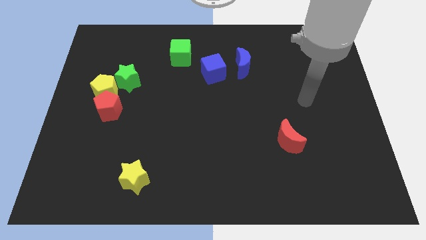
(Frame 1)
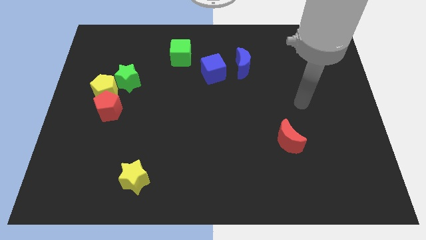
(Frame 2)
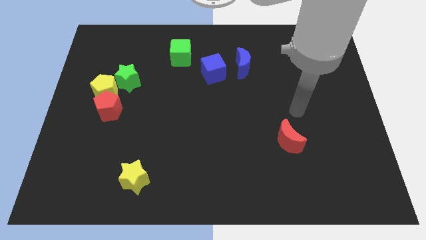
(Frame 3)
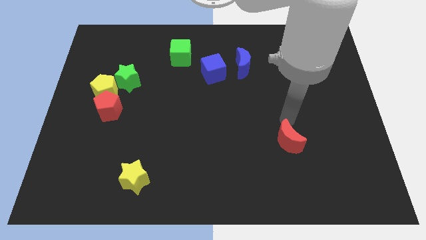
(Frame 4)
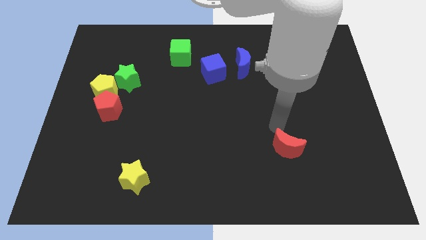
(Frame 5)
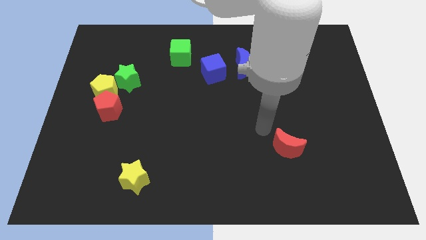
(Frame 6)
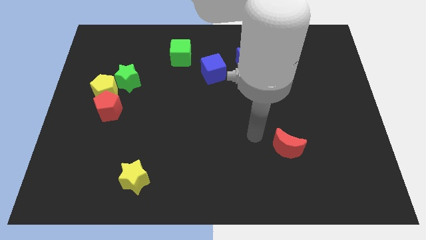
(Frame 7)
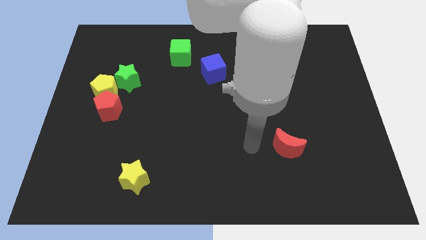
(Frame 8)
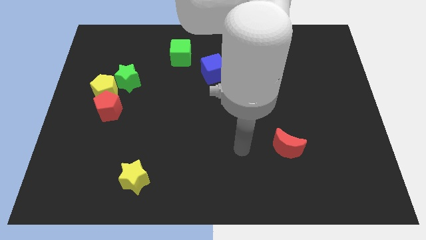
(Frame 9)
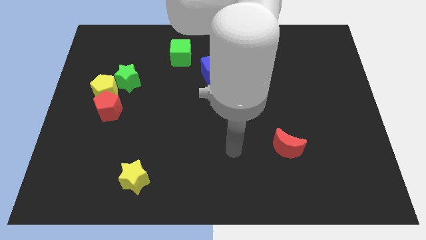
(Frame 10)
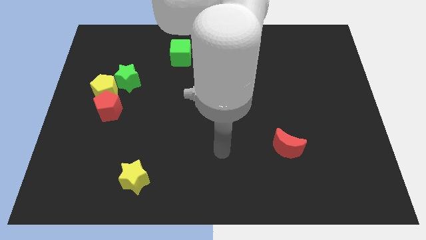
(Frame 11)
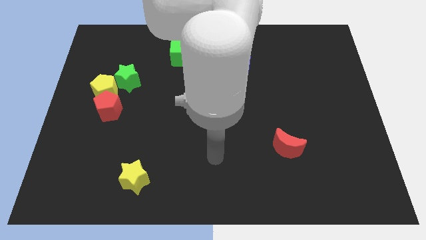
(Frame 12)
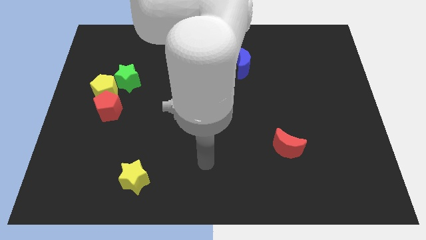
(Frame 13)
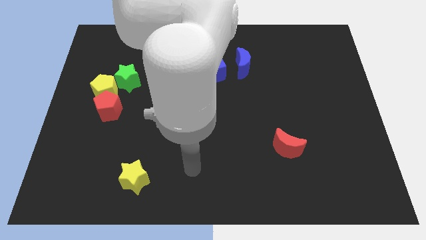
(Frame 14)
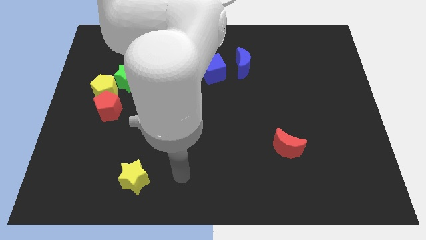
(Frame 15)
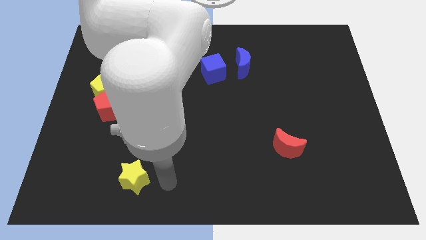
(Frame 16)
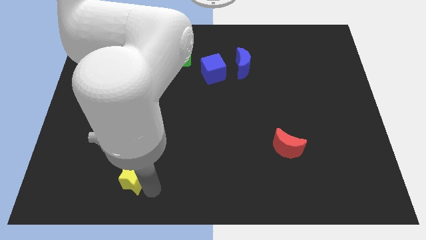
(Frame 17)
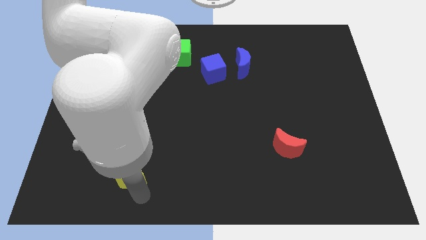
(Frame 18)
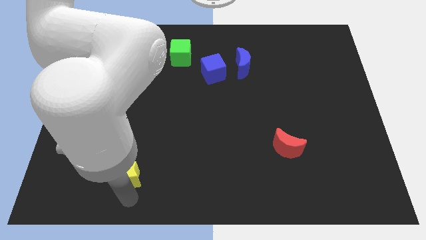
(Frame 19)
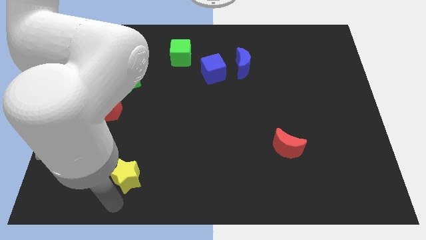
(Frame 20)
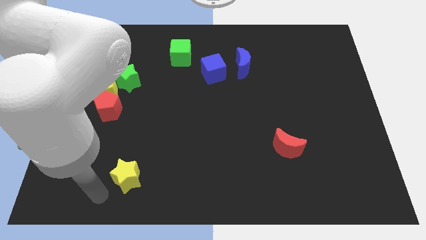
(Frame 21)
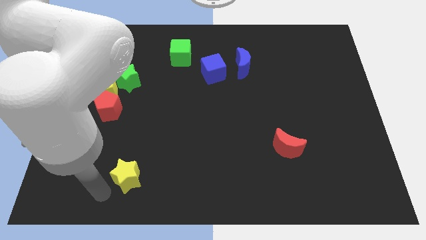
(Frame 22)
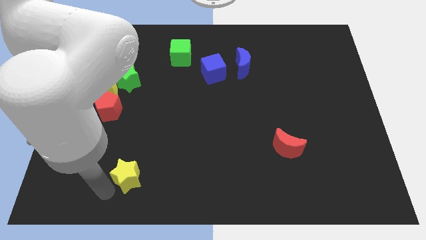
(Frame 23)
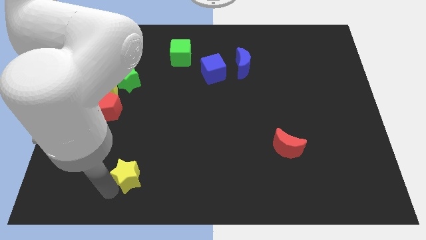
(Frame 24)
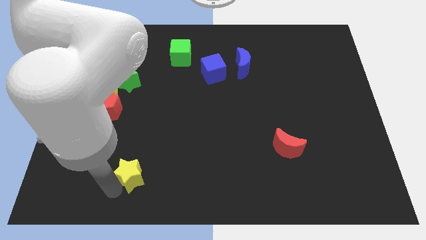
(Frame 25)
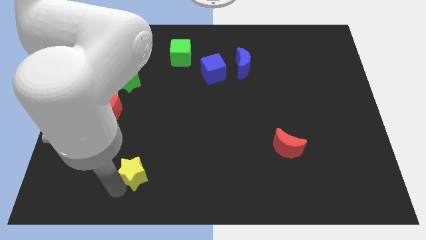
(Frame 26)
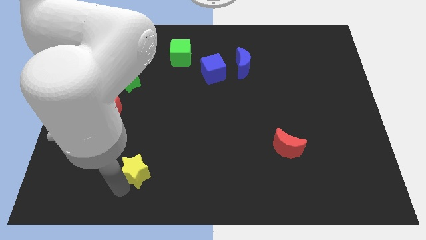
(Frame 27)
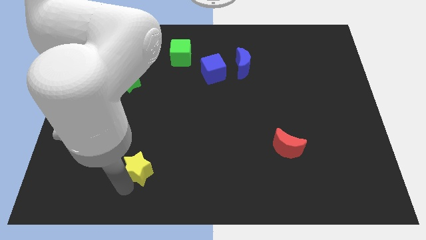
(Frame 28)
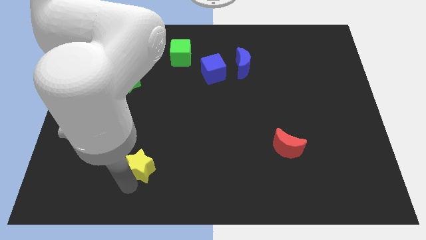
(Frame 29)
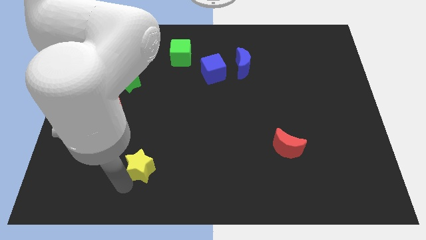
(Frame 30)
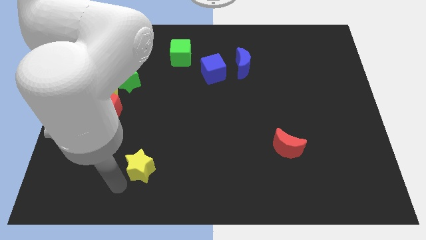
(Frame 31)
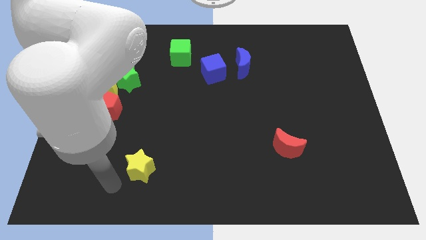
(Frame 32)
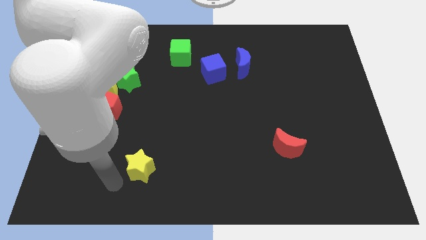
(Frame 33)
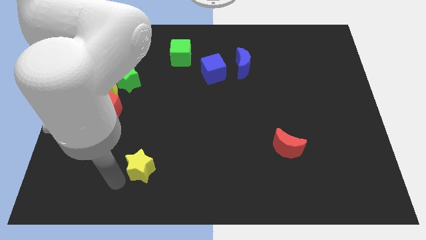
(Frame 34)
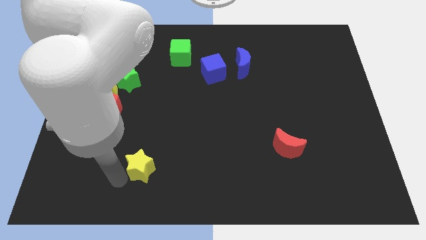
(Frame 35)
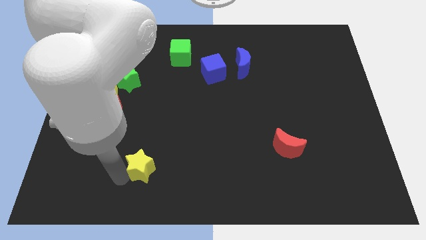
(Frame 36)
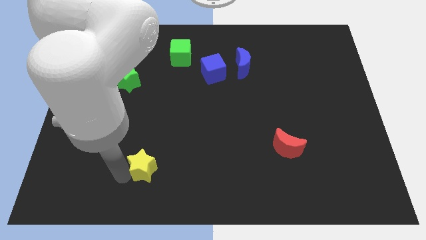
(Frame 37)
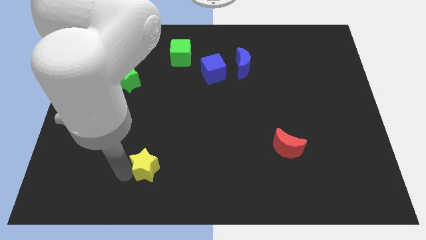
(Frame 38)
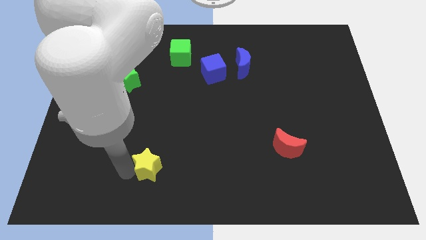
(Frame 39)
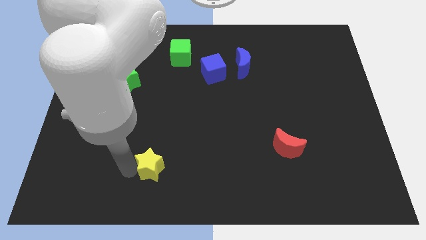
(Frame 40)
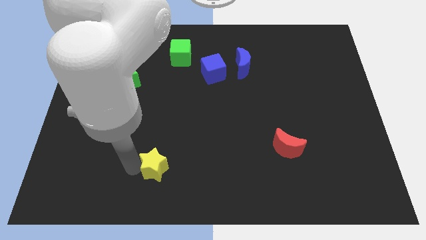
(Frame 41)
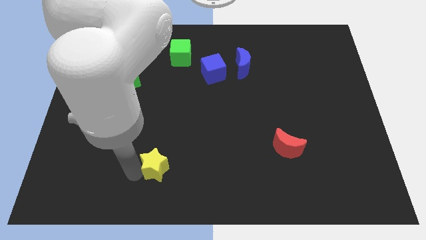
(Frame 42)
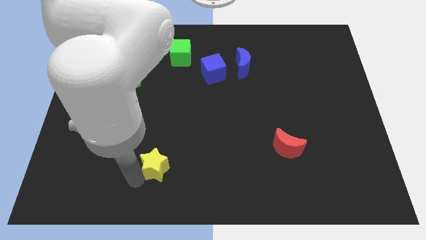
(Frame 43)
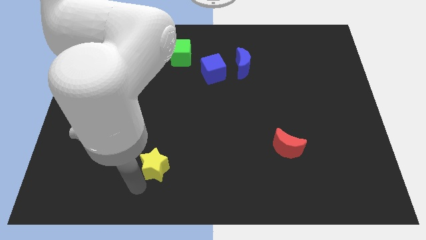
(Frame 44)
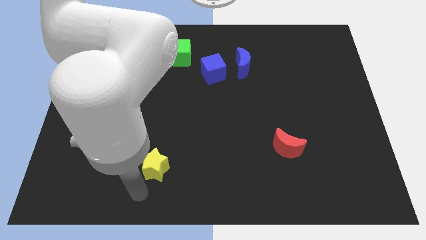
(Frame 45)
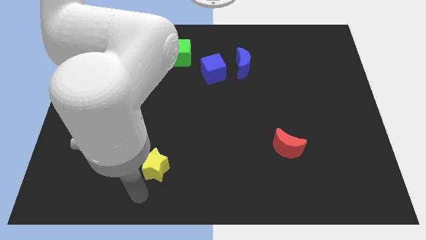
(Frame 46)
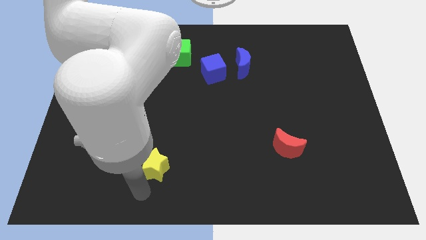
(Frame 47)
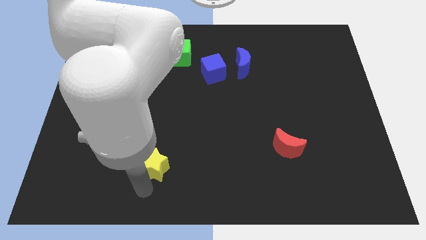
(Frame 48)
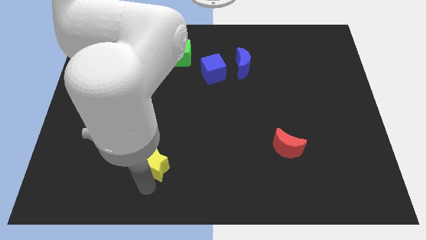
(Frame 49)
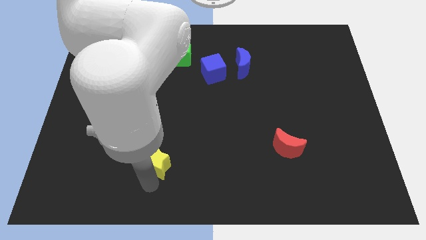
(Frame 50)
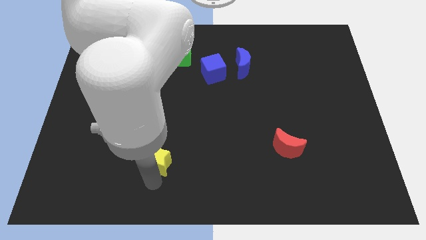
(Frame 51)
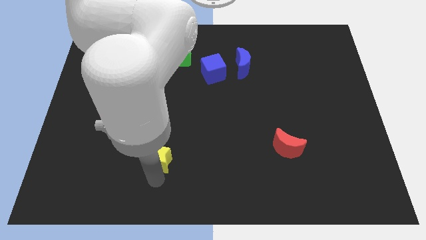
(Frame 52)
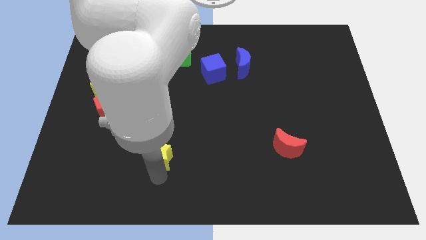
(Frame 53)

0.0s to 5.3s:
slightly push the yellow star diagonally upwards and to the right

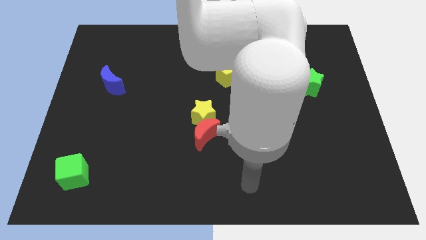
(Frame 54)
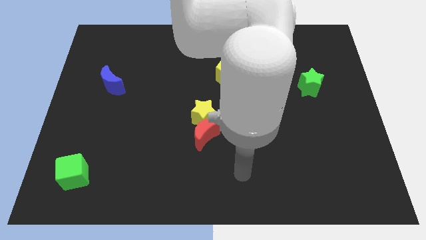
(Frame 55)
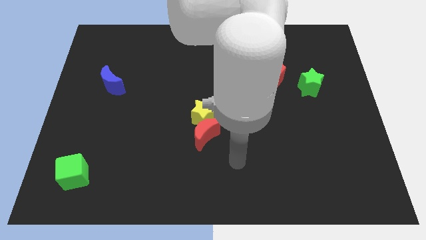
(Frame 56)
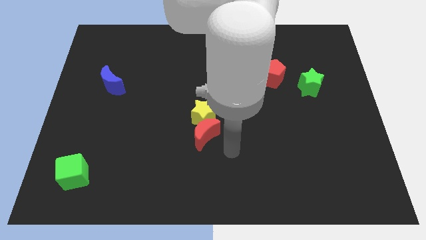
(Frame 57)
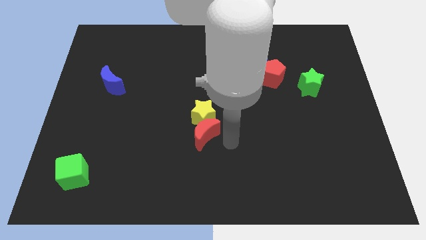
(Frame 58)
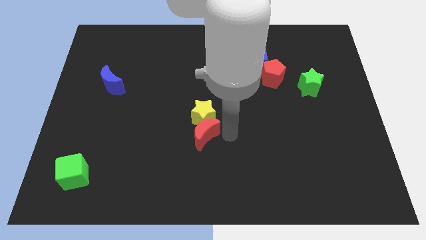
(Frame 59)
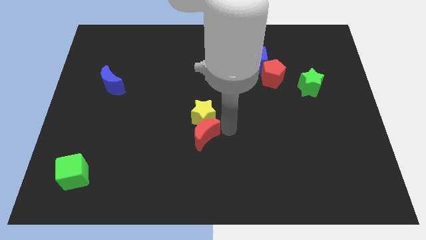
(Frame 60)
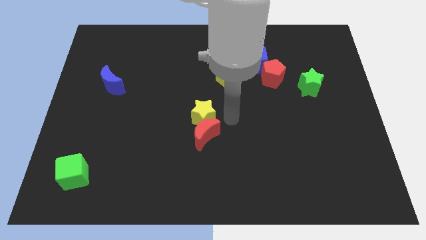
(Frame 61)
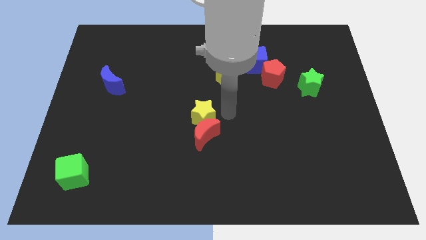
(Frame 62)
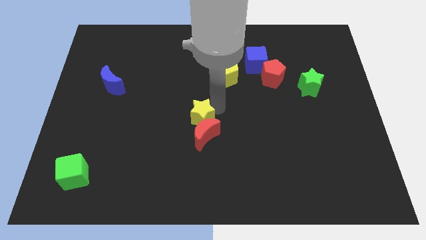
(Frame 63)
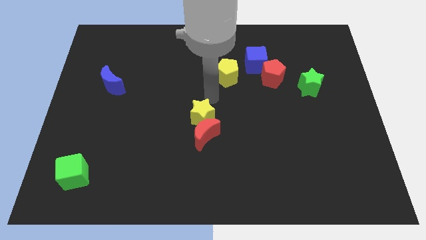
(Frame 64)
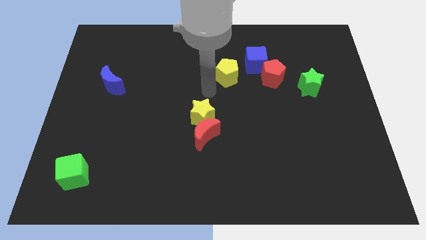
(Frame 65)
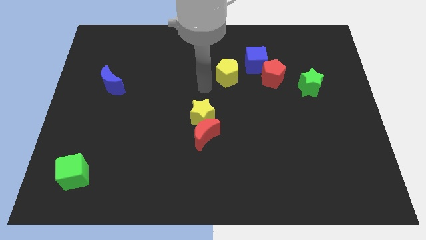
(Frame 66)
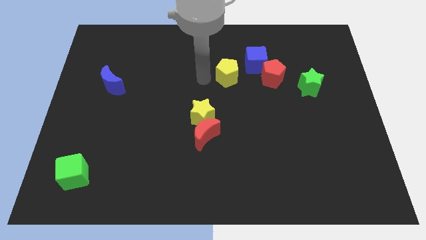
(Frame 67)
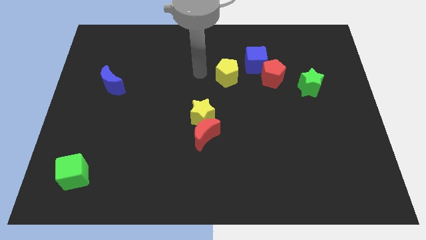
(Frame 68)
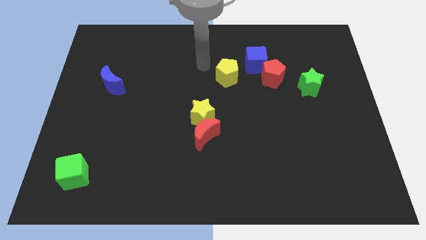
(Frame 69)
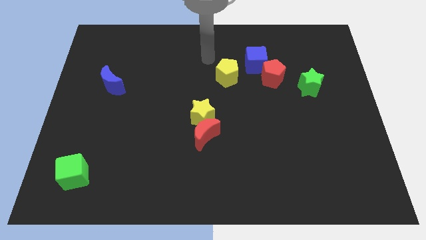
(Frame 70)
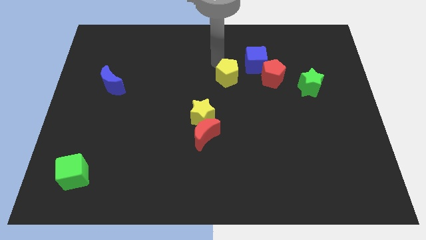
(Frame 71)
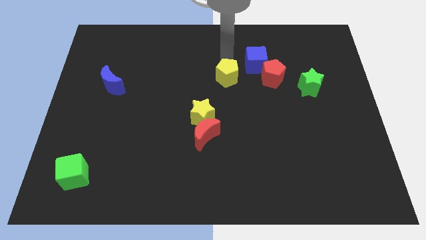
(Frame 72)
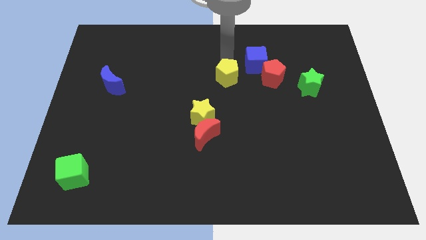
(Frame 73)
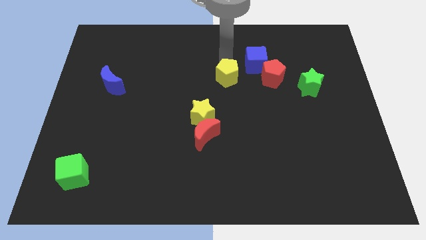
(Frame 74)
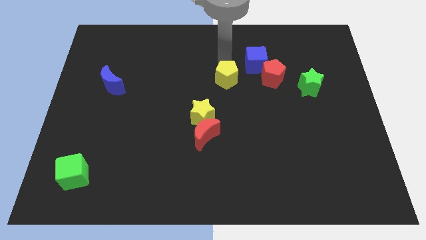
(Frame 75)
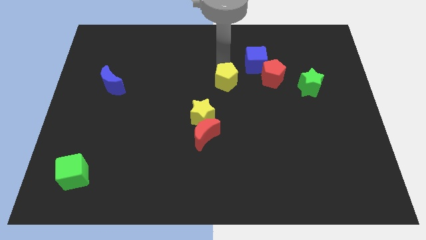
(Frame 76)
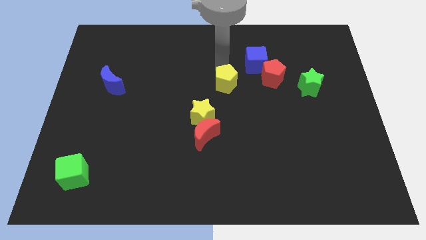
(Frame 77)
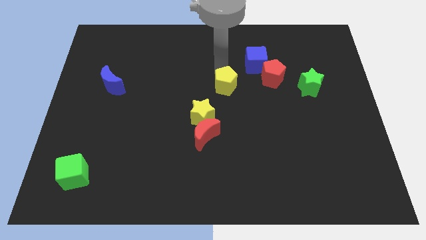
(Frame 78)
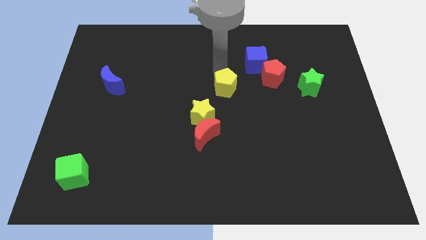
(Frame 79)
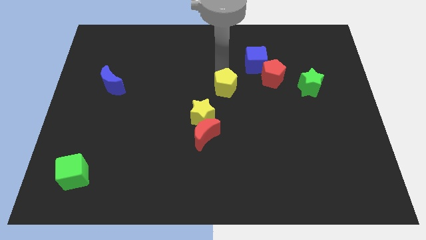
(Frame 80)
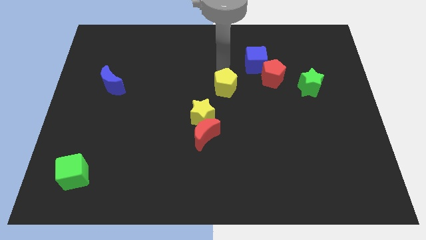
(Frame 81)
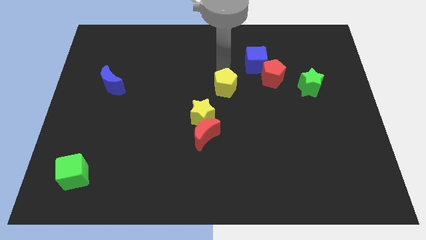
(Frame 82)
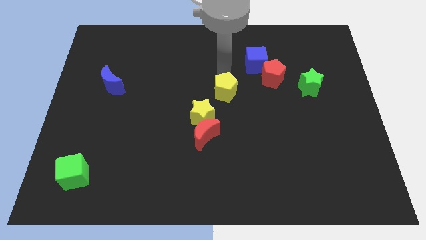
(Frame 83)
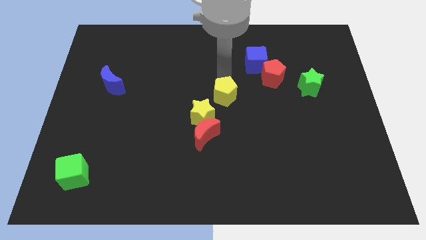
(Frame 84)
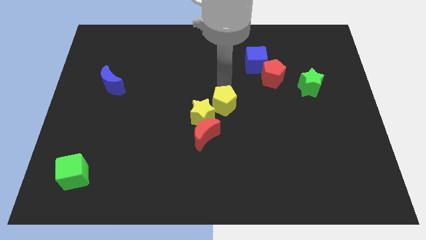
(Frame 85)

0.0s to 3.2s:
move the yellow pentagon downwards a little
